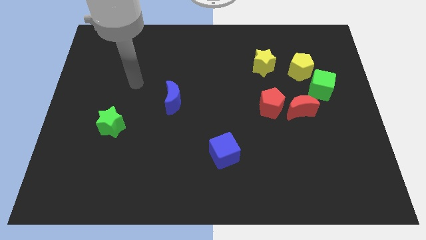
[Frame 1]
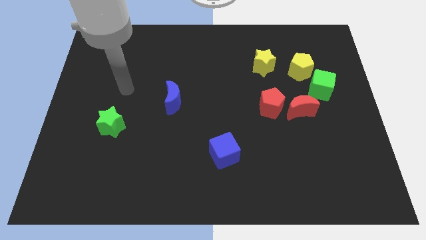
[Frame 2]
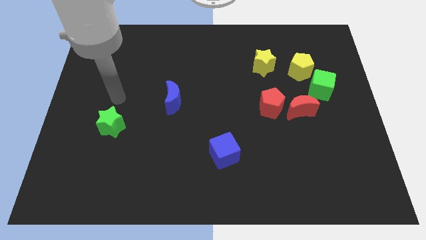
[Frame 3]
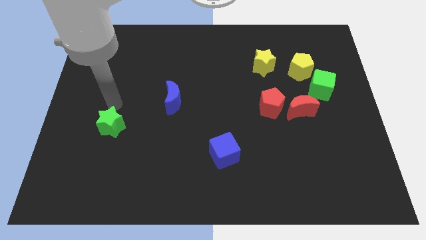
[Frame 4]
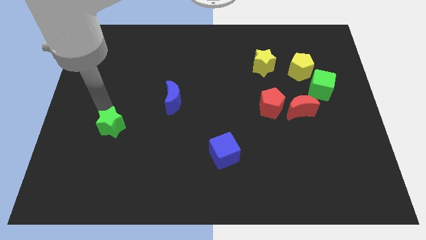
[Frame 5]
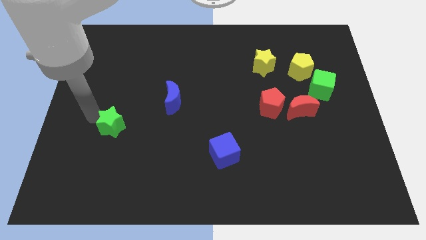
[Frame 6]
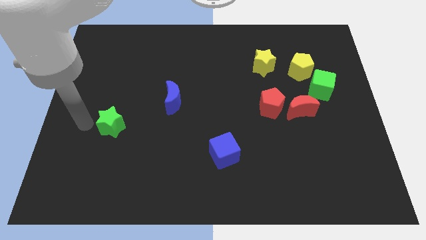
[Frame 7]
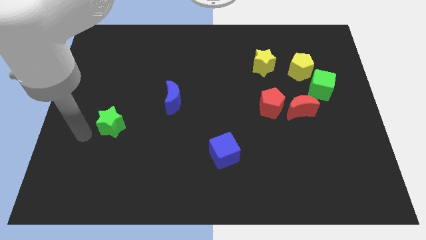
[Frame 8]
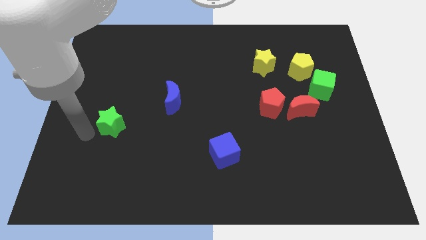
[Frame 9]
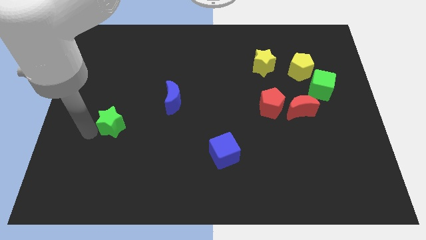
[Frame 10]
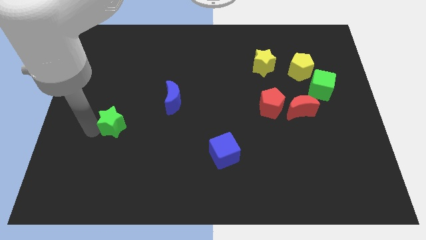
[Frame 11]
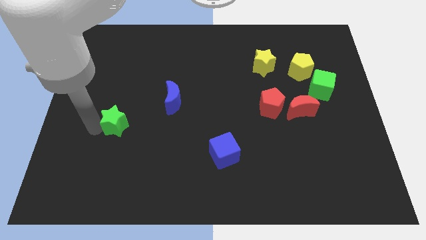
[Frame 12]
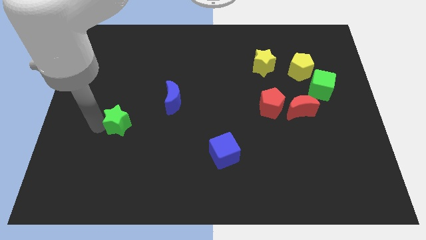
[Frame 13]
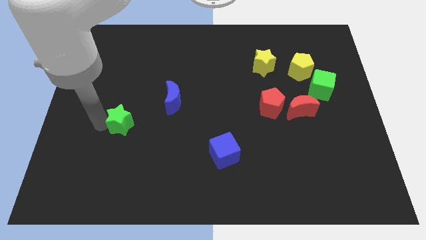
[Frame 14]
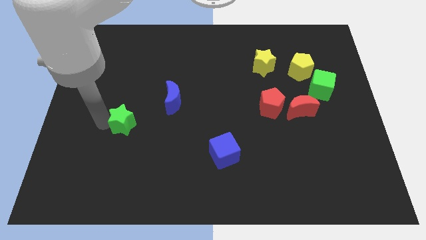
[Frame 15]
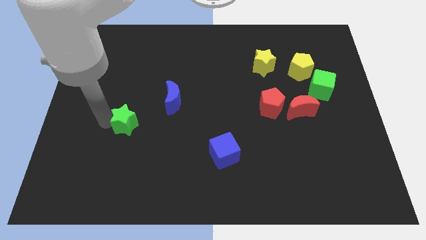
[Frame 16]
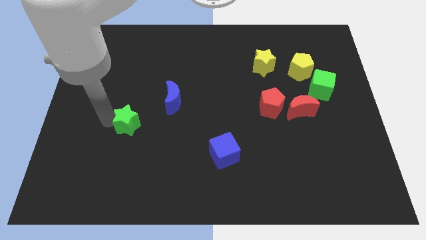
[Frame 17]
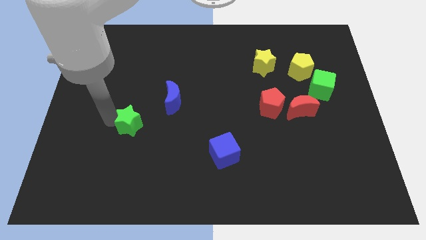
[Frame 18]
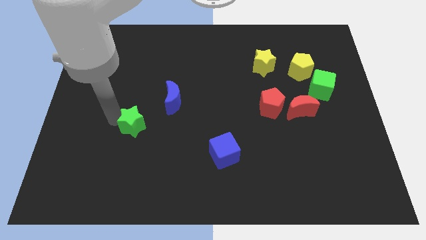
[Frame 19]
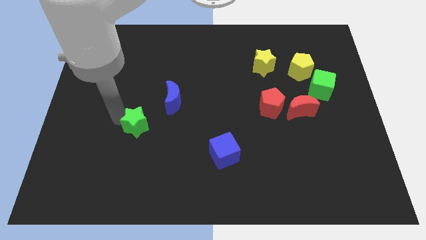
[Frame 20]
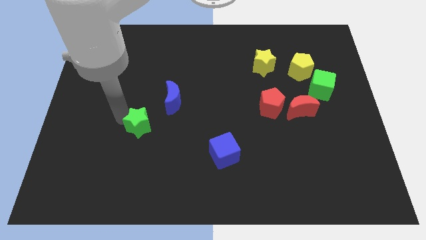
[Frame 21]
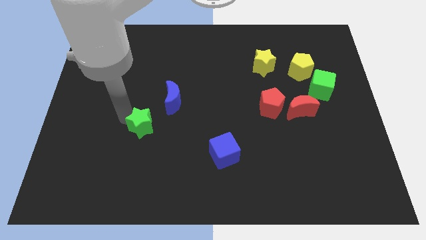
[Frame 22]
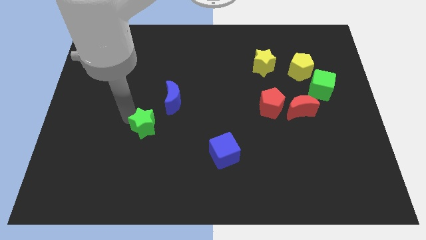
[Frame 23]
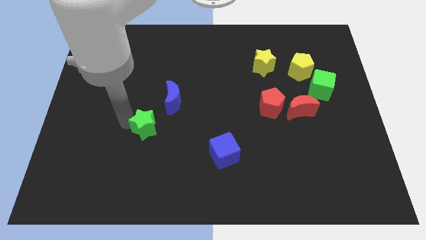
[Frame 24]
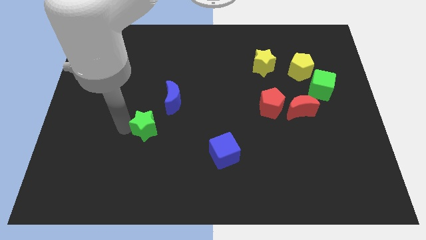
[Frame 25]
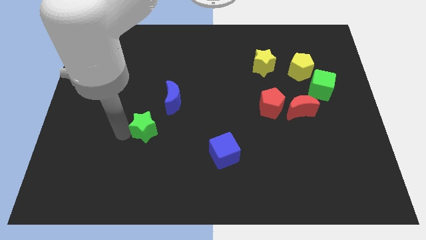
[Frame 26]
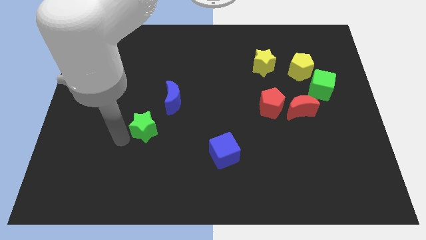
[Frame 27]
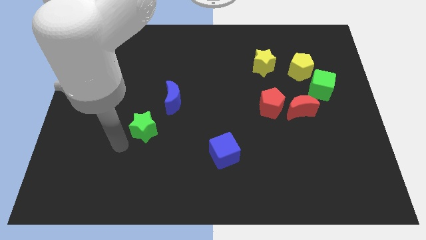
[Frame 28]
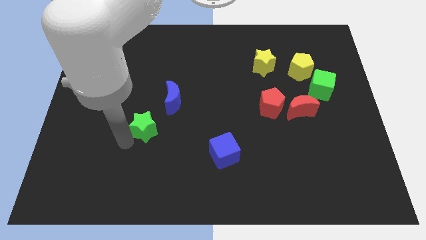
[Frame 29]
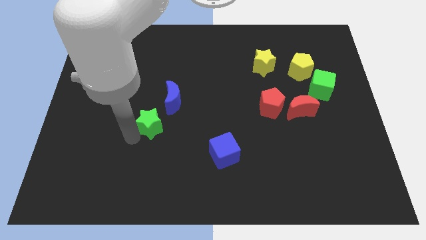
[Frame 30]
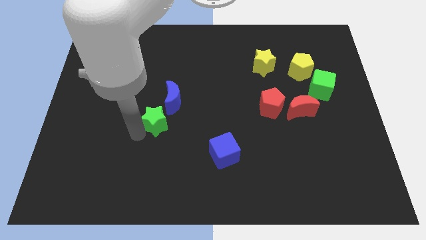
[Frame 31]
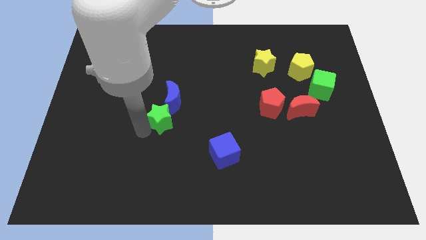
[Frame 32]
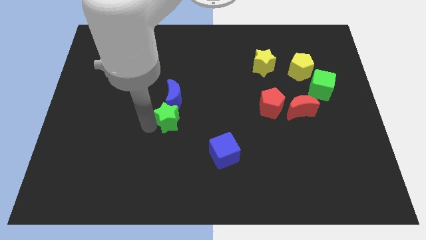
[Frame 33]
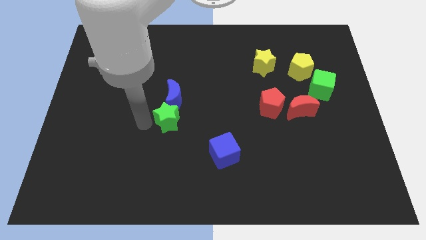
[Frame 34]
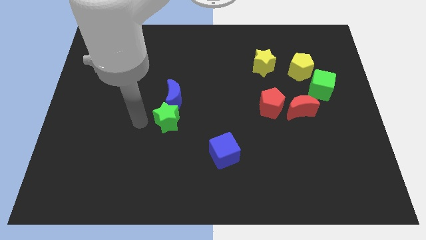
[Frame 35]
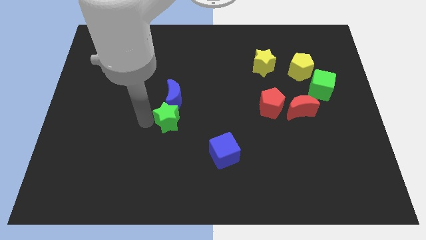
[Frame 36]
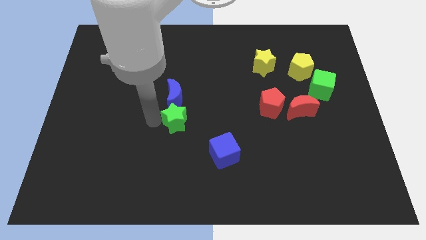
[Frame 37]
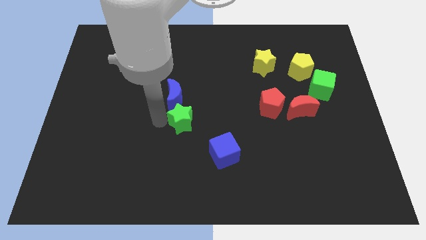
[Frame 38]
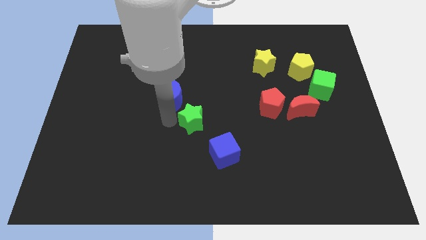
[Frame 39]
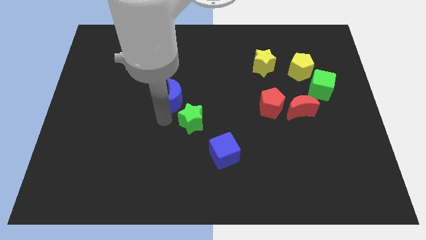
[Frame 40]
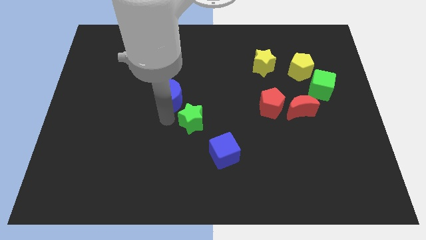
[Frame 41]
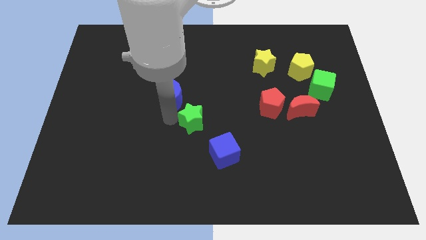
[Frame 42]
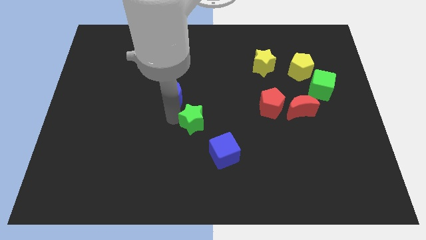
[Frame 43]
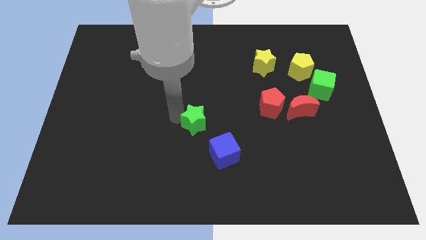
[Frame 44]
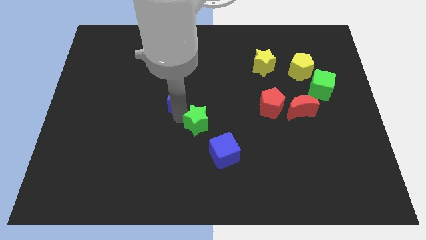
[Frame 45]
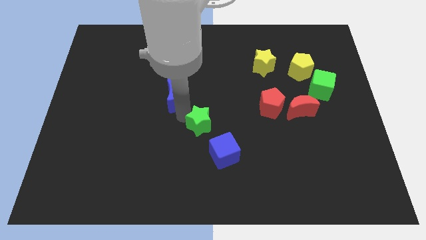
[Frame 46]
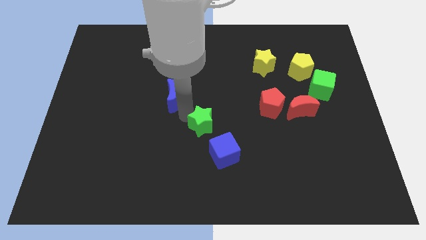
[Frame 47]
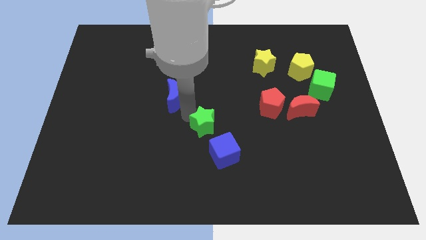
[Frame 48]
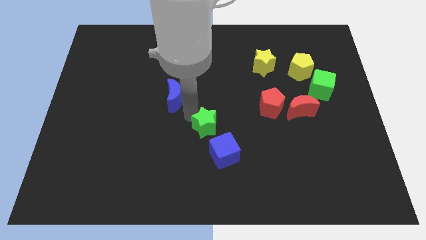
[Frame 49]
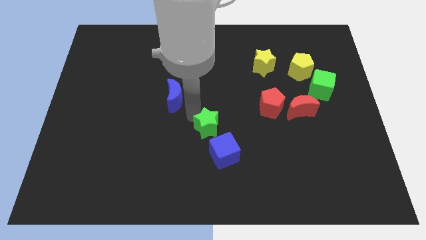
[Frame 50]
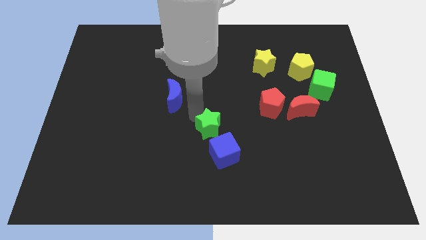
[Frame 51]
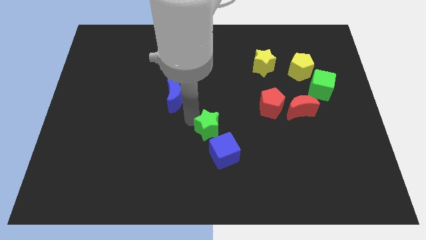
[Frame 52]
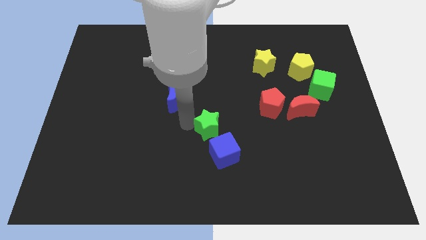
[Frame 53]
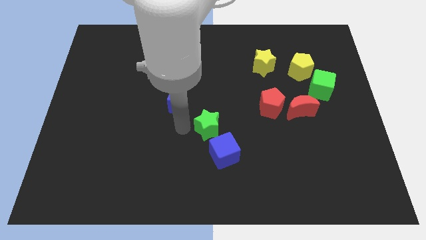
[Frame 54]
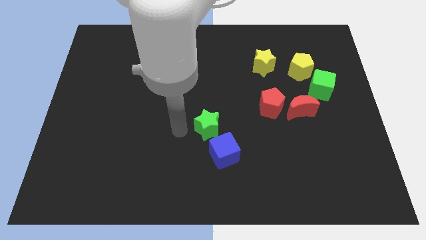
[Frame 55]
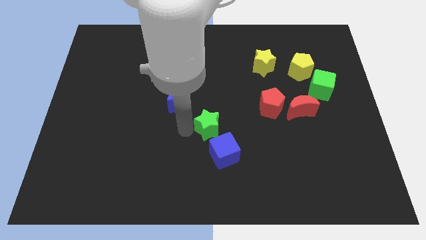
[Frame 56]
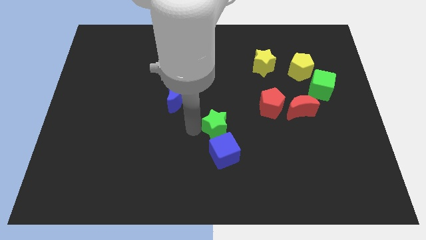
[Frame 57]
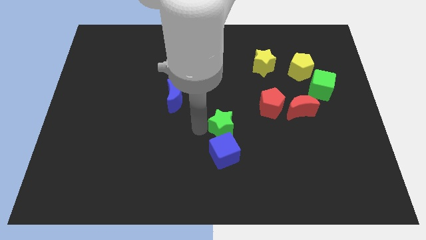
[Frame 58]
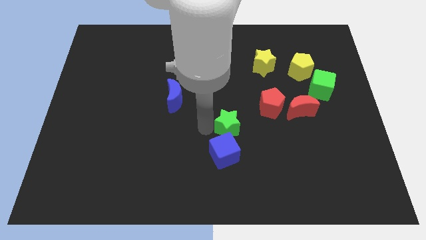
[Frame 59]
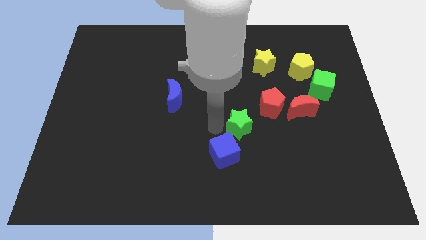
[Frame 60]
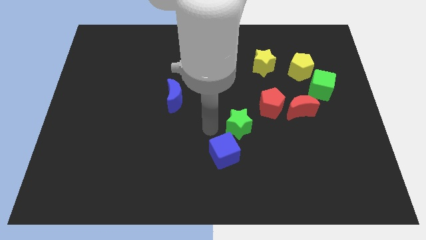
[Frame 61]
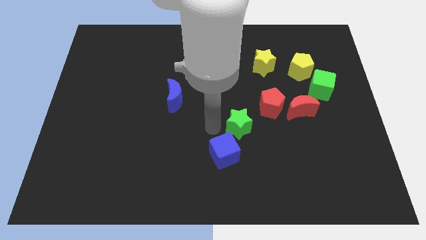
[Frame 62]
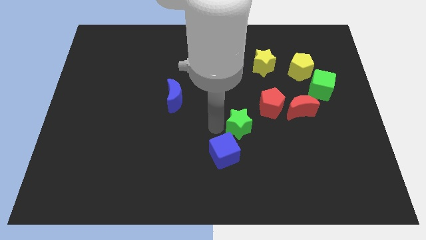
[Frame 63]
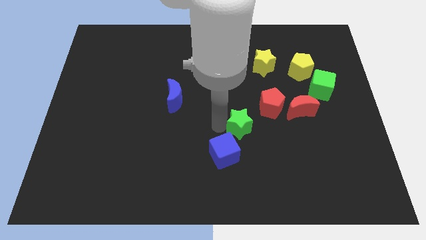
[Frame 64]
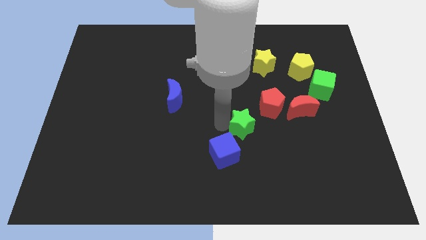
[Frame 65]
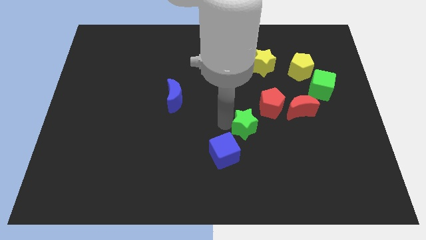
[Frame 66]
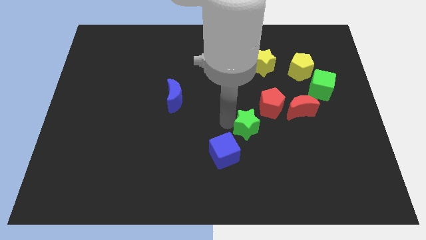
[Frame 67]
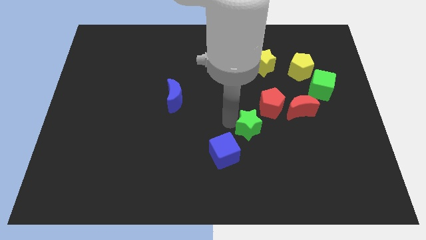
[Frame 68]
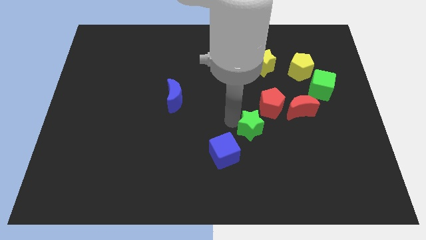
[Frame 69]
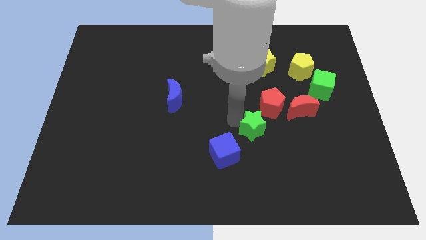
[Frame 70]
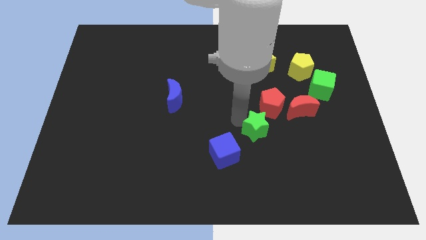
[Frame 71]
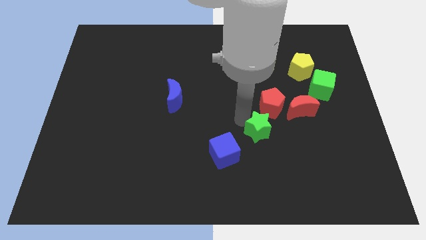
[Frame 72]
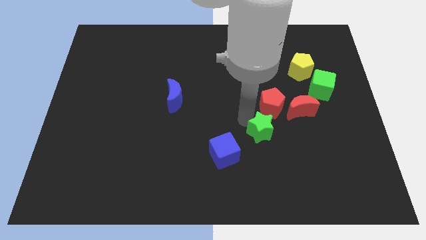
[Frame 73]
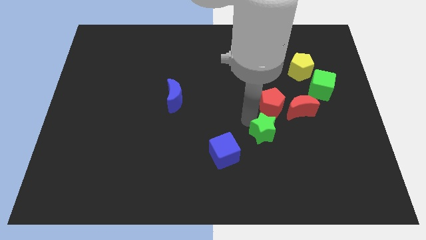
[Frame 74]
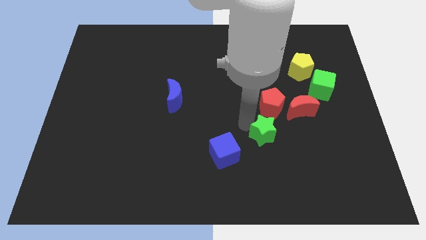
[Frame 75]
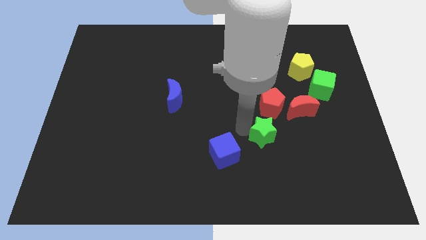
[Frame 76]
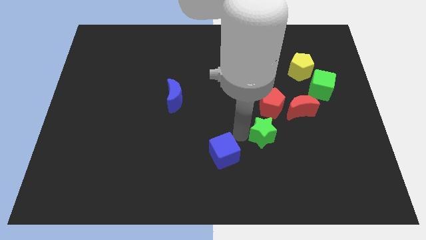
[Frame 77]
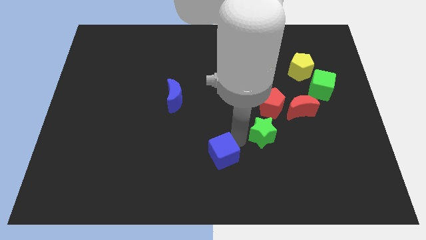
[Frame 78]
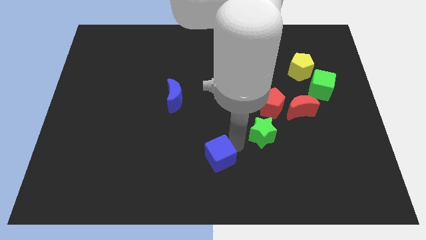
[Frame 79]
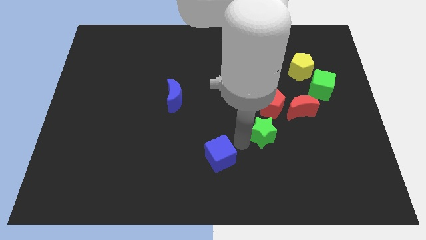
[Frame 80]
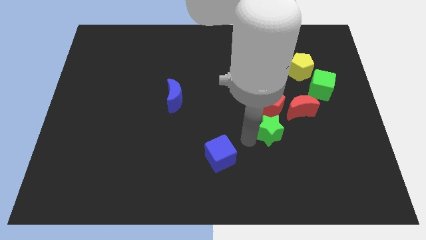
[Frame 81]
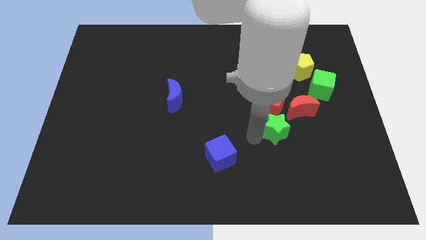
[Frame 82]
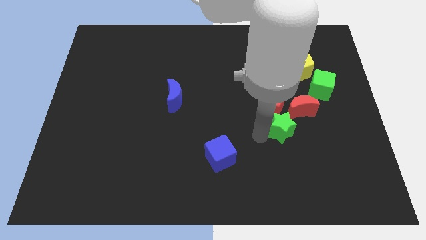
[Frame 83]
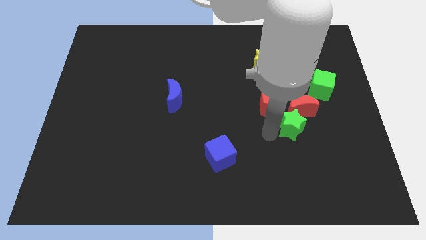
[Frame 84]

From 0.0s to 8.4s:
push the green star close to the red moon
